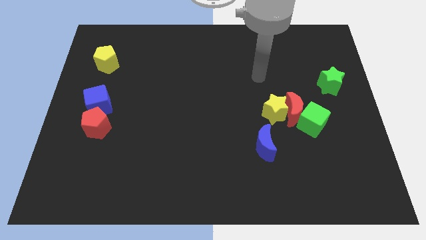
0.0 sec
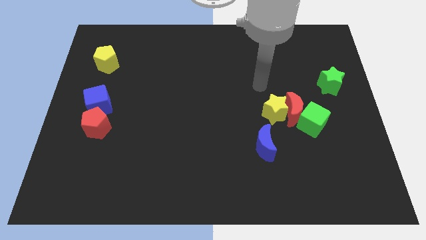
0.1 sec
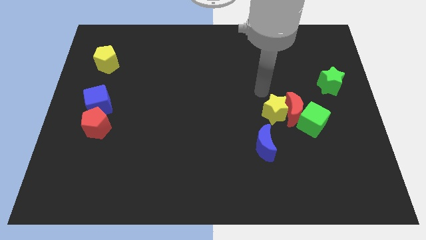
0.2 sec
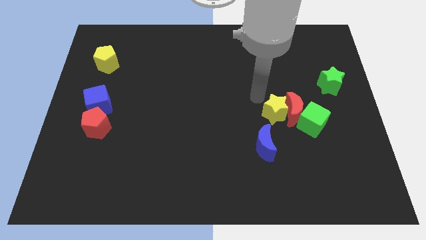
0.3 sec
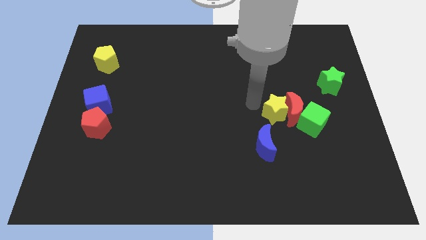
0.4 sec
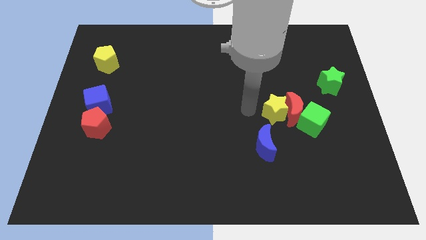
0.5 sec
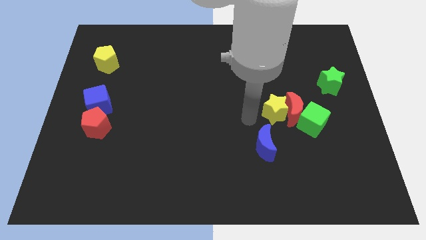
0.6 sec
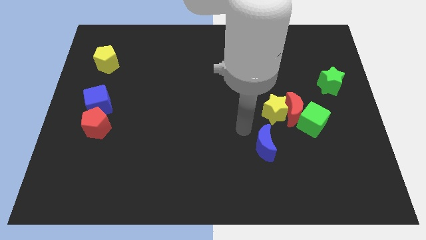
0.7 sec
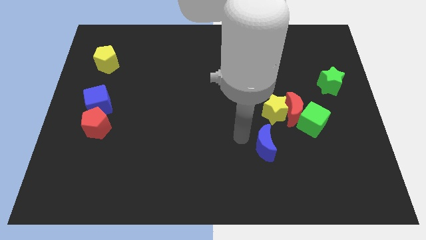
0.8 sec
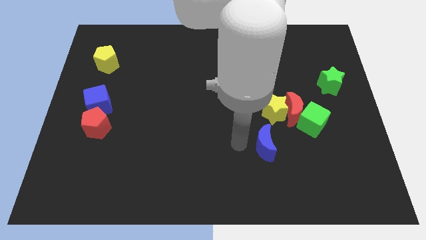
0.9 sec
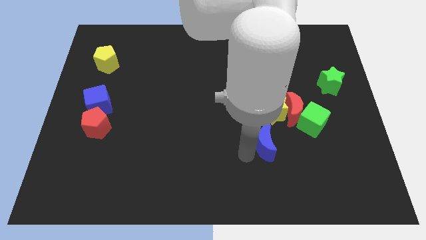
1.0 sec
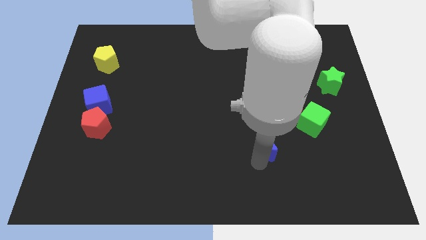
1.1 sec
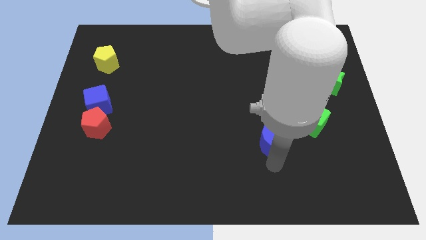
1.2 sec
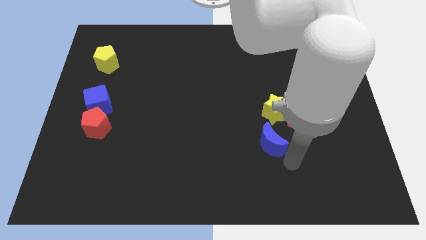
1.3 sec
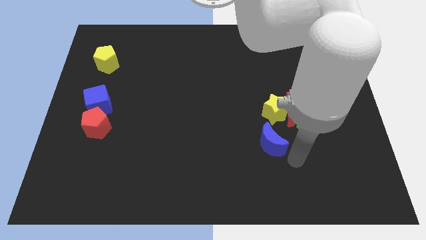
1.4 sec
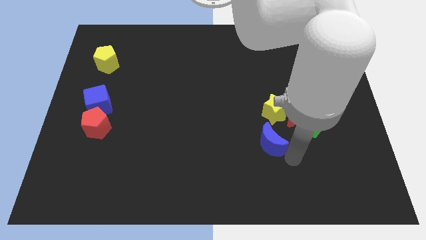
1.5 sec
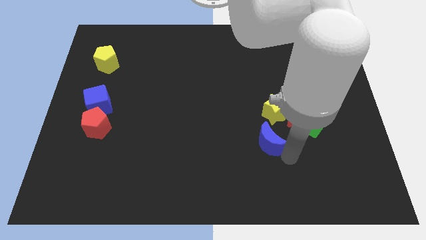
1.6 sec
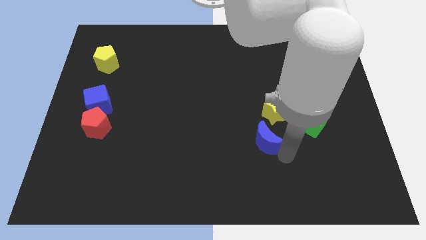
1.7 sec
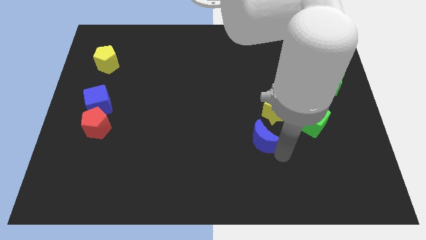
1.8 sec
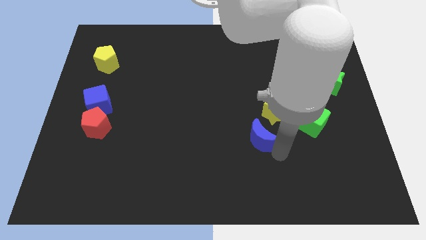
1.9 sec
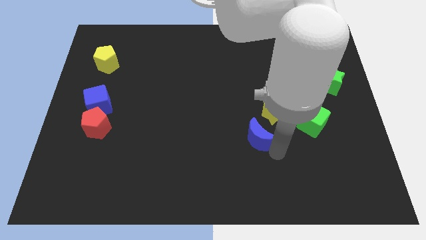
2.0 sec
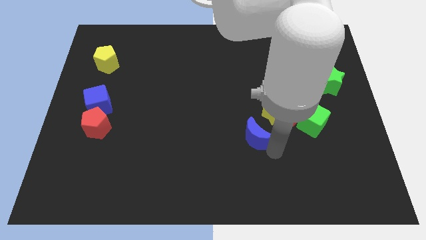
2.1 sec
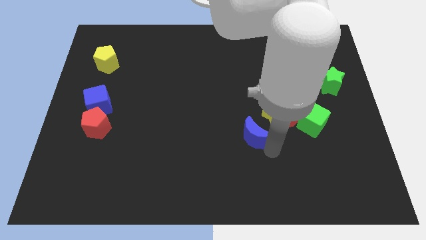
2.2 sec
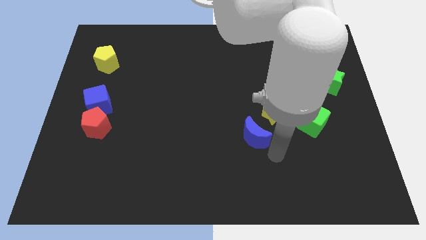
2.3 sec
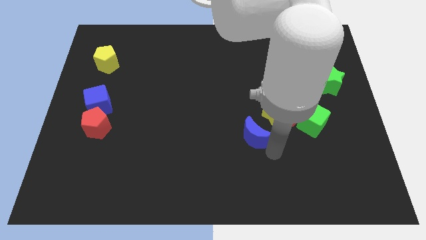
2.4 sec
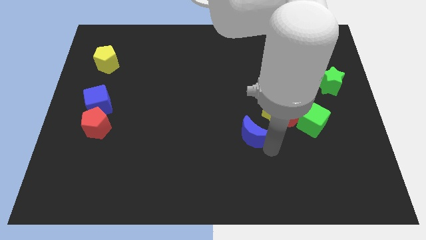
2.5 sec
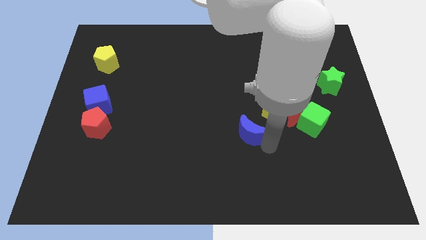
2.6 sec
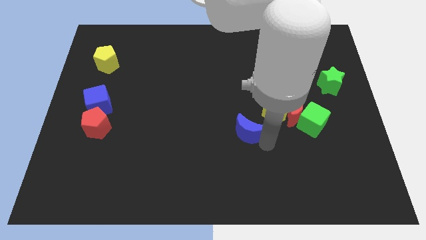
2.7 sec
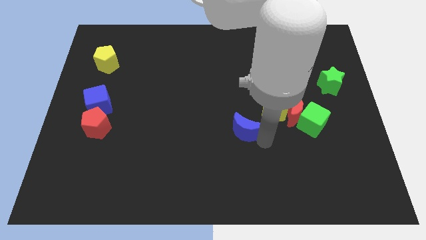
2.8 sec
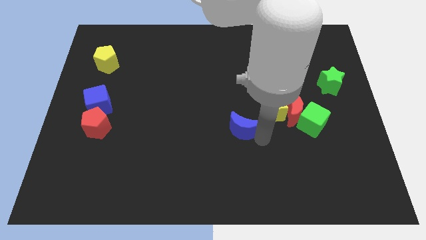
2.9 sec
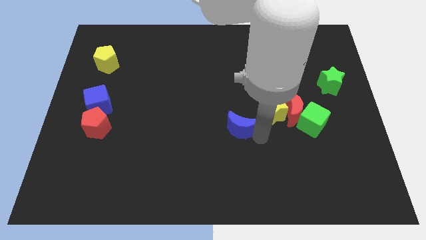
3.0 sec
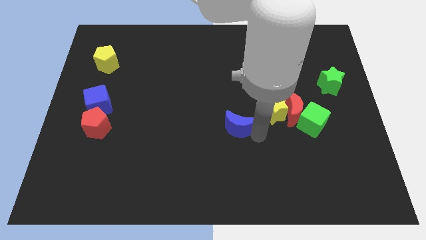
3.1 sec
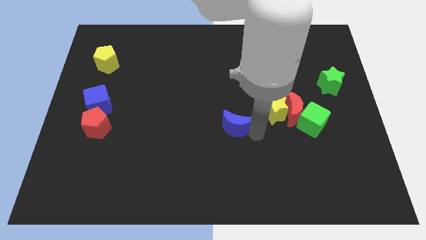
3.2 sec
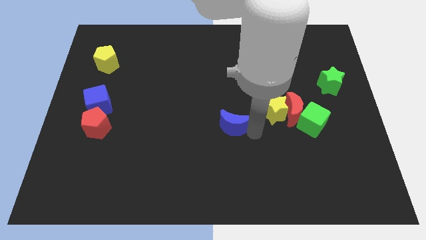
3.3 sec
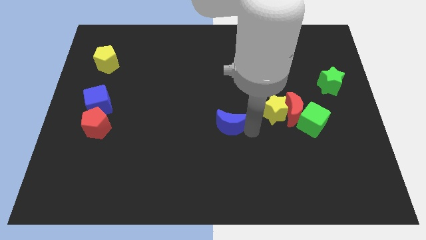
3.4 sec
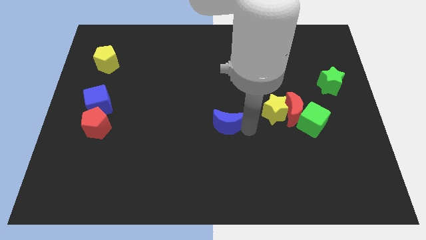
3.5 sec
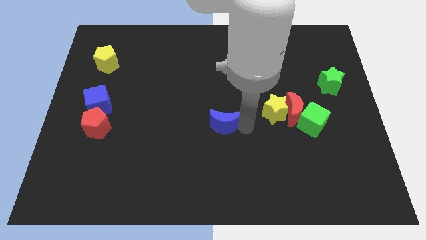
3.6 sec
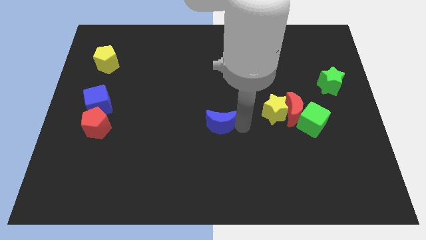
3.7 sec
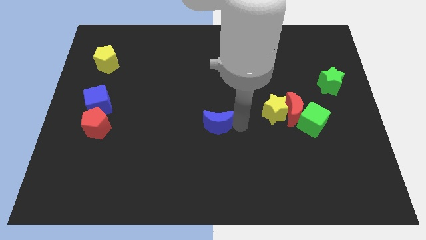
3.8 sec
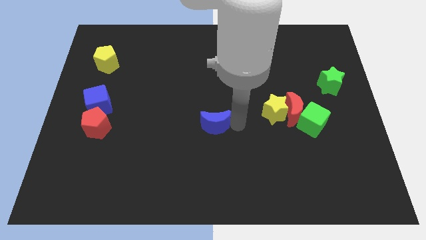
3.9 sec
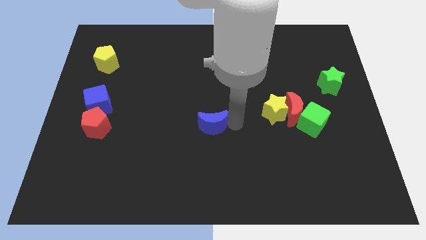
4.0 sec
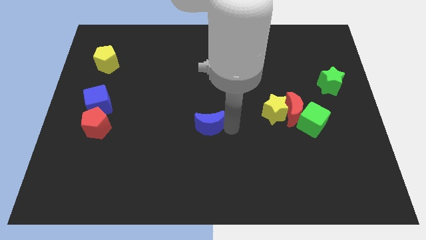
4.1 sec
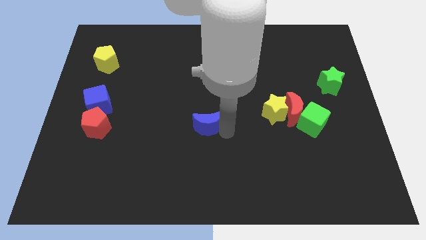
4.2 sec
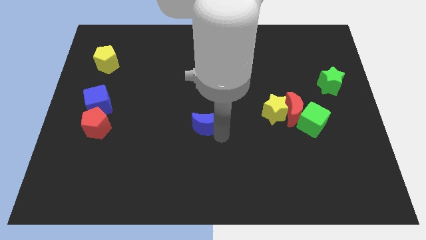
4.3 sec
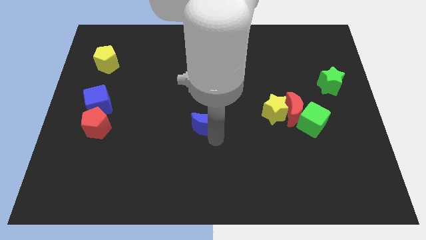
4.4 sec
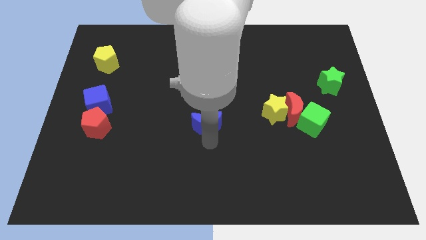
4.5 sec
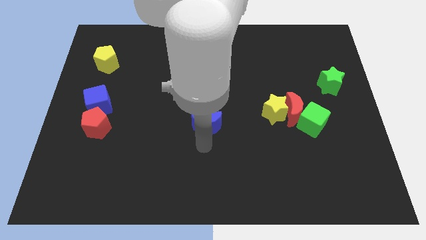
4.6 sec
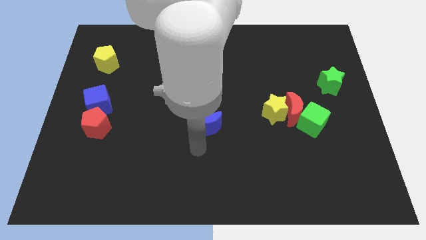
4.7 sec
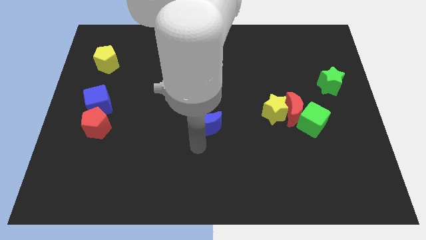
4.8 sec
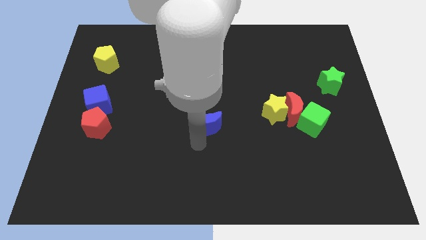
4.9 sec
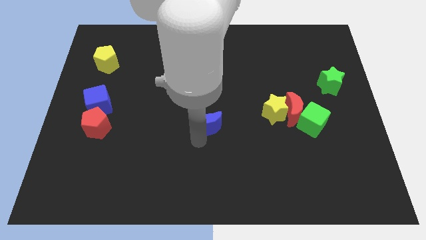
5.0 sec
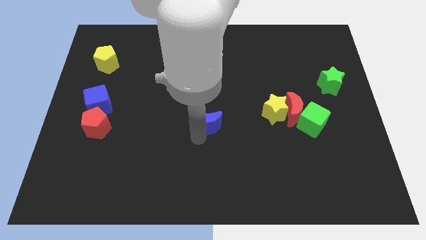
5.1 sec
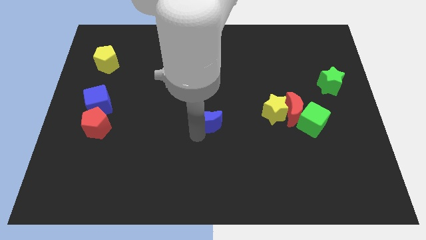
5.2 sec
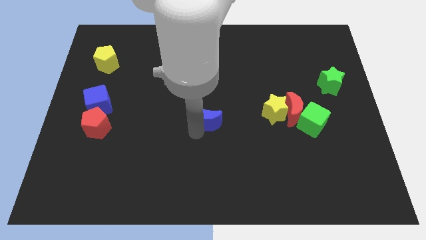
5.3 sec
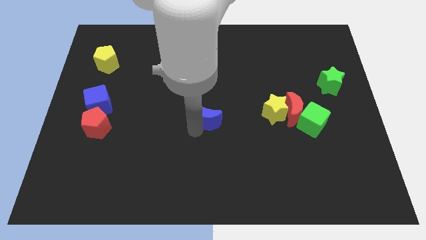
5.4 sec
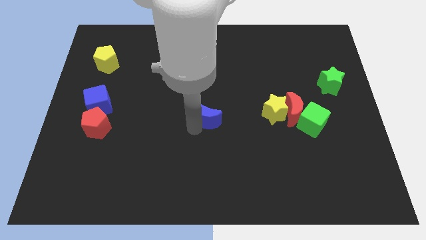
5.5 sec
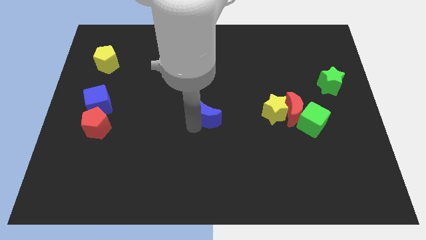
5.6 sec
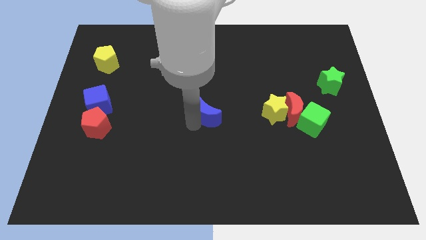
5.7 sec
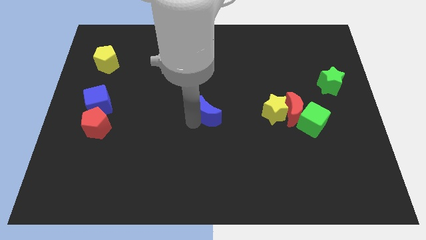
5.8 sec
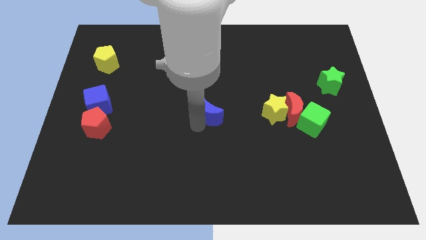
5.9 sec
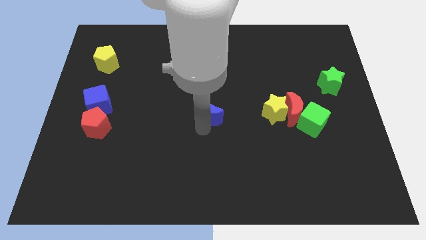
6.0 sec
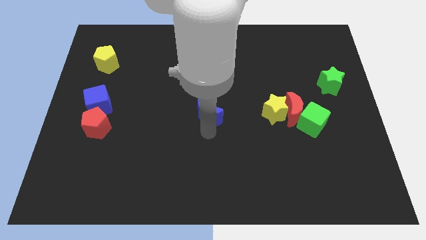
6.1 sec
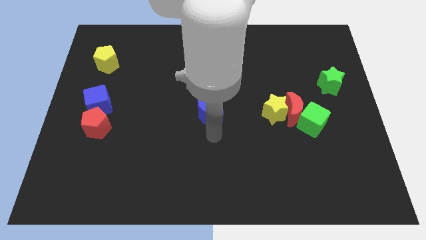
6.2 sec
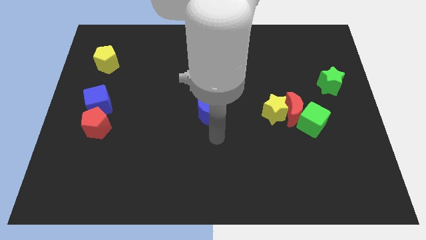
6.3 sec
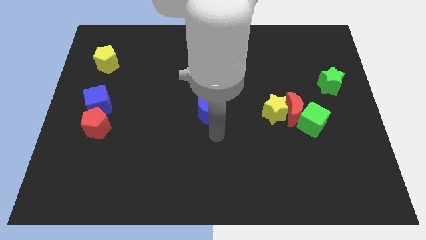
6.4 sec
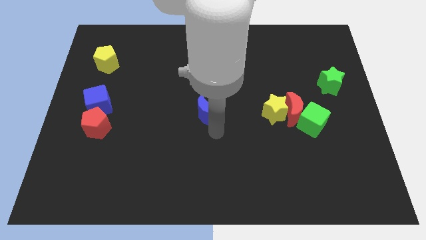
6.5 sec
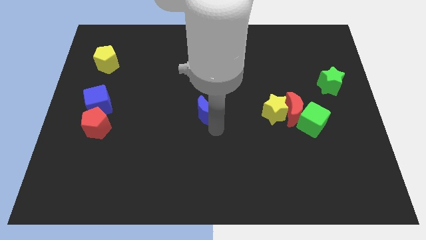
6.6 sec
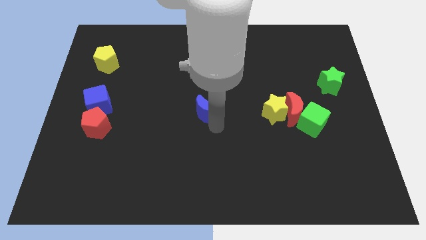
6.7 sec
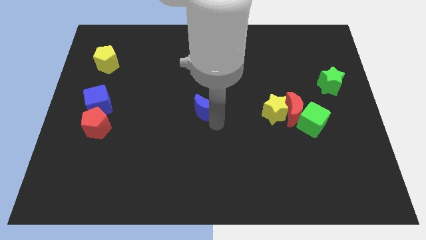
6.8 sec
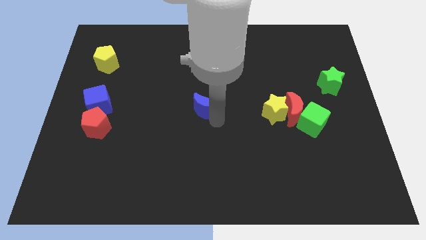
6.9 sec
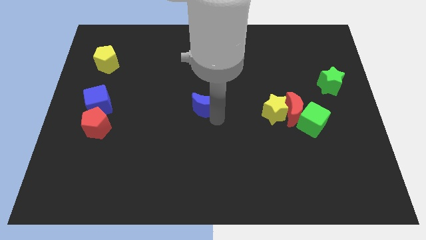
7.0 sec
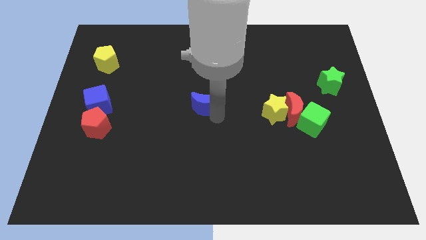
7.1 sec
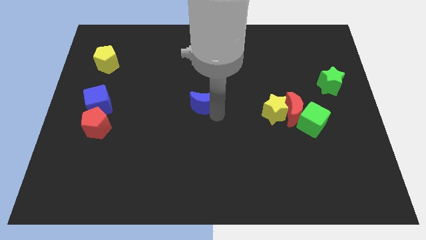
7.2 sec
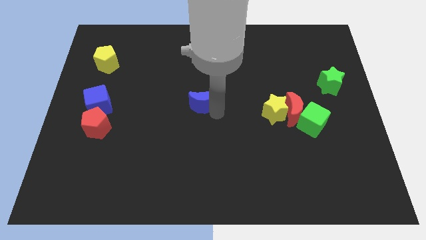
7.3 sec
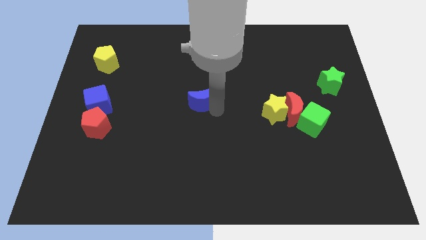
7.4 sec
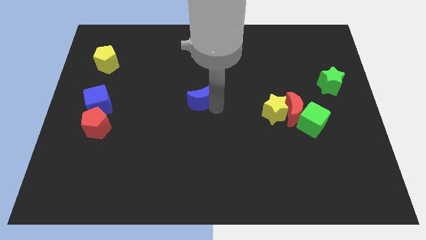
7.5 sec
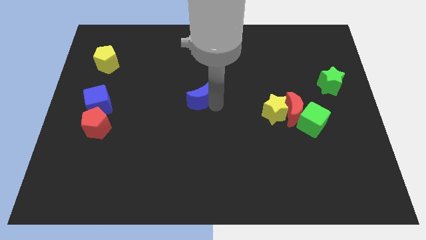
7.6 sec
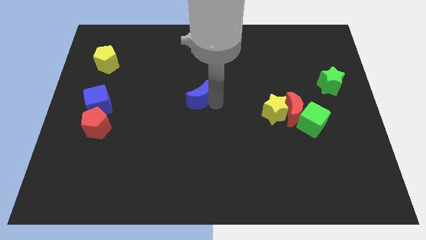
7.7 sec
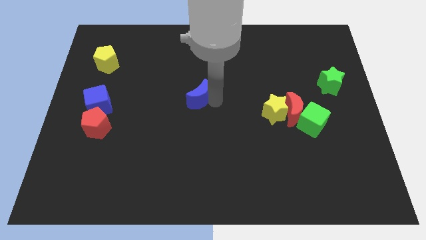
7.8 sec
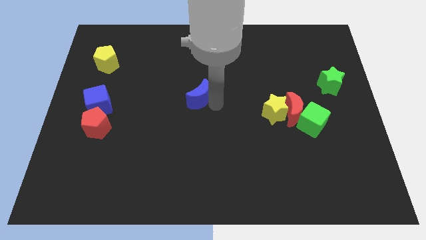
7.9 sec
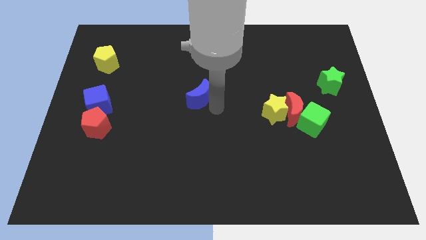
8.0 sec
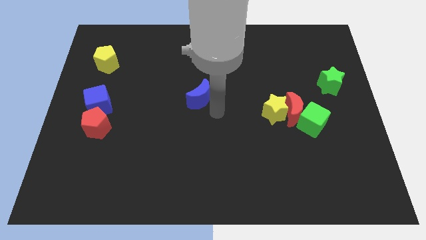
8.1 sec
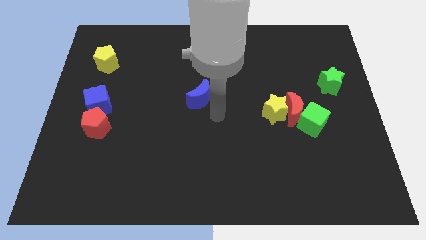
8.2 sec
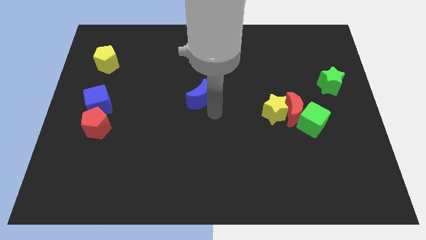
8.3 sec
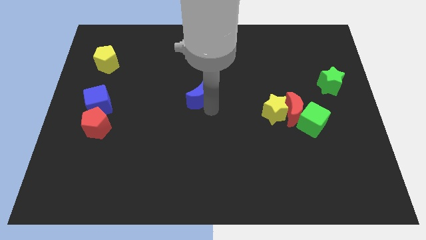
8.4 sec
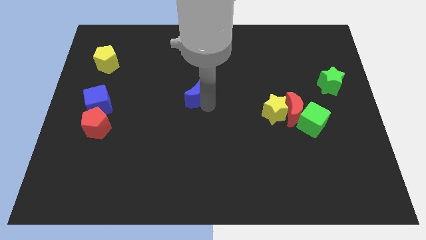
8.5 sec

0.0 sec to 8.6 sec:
push the blue moon diagonally up and left
